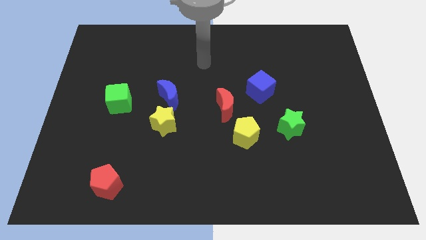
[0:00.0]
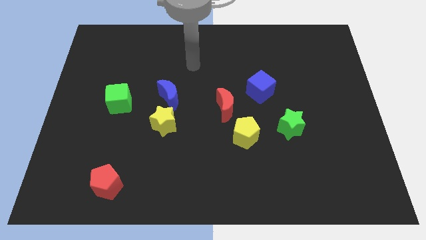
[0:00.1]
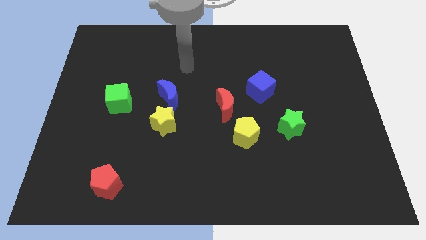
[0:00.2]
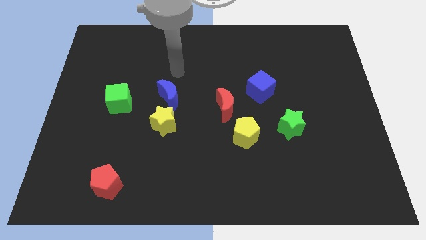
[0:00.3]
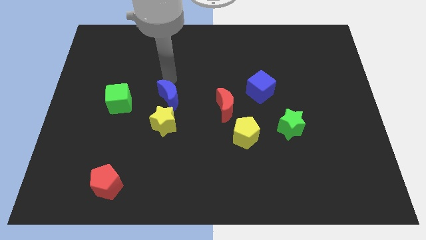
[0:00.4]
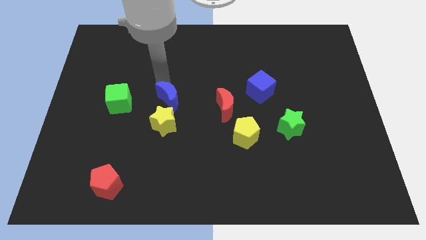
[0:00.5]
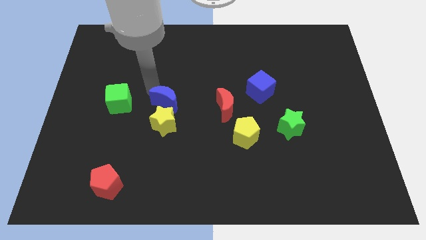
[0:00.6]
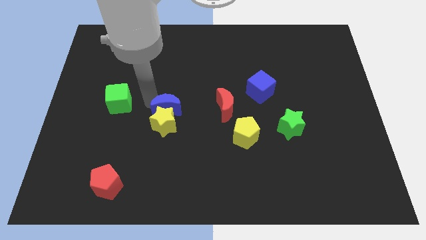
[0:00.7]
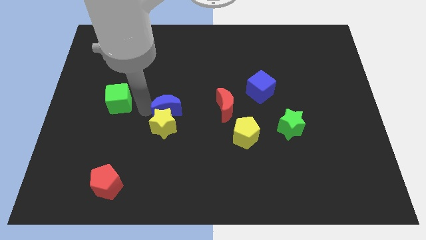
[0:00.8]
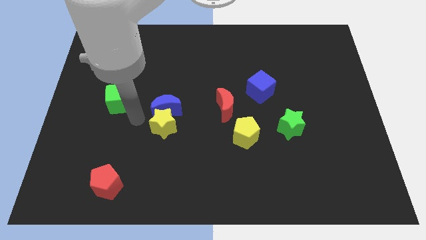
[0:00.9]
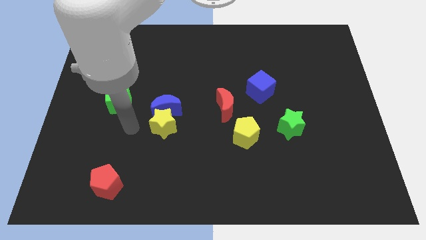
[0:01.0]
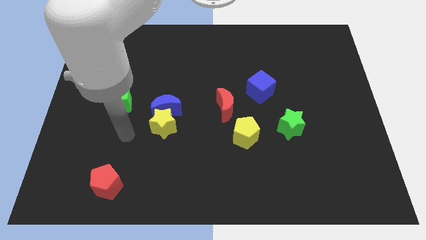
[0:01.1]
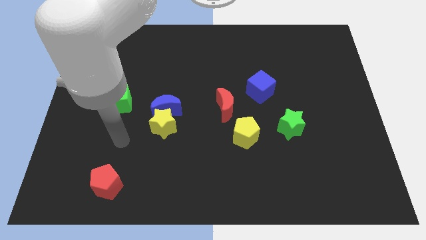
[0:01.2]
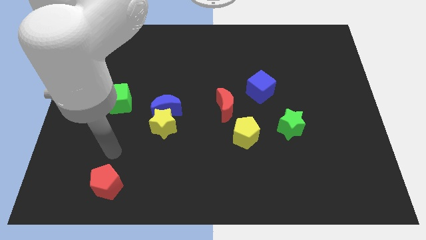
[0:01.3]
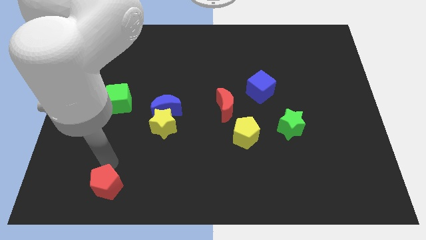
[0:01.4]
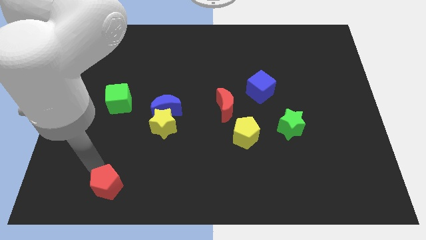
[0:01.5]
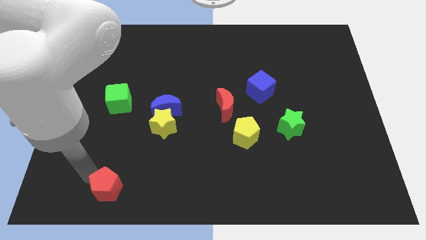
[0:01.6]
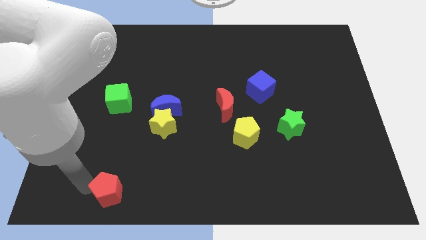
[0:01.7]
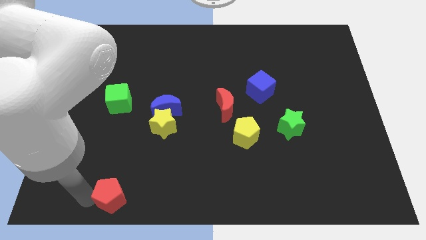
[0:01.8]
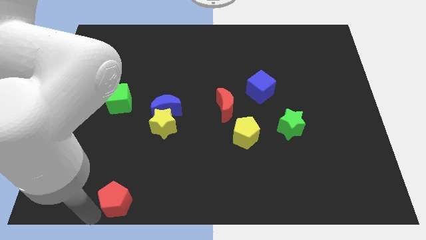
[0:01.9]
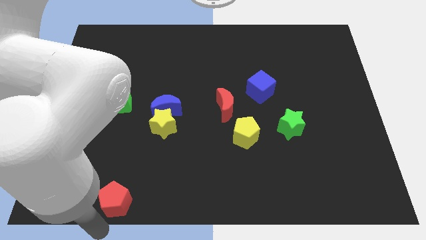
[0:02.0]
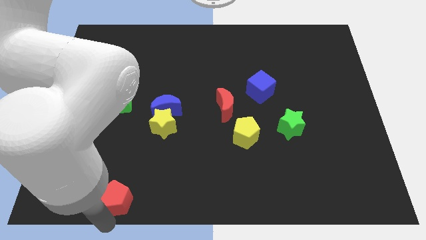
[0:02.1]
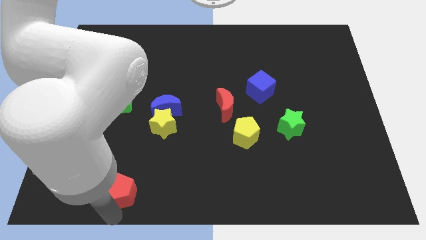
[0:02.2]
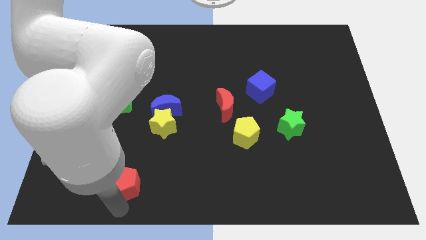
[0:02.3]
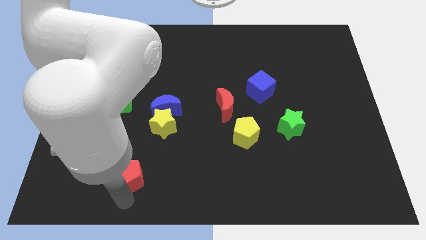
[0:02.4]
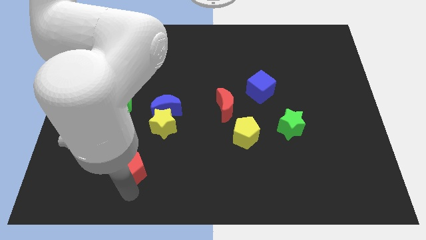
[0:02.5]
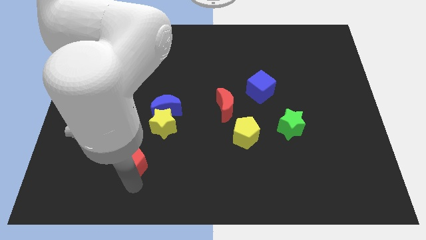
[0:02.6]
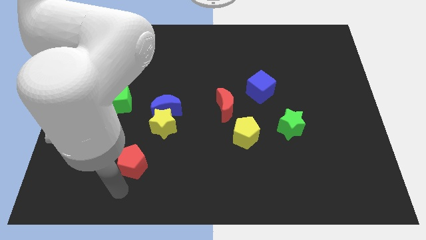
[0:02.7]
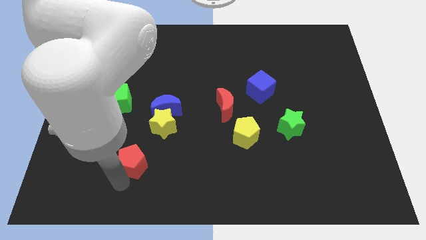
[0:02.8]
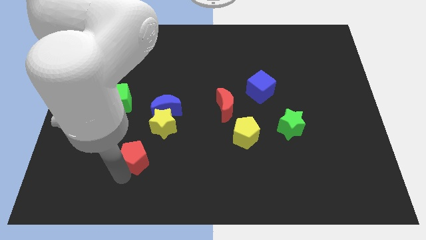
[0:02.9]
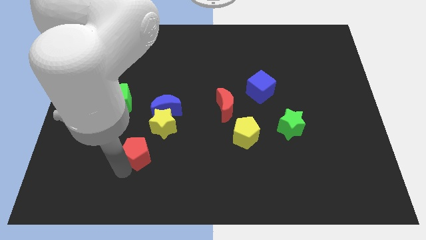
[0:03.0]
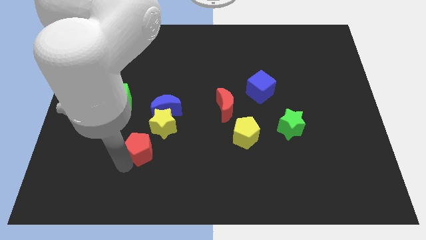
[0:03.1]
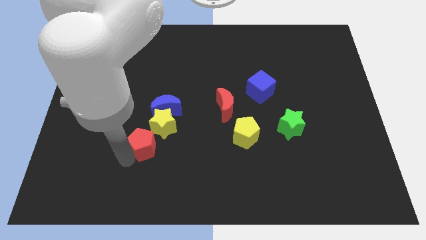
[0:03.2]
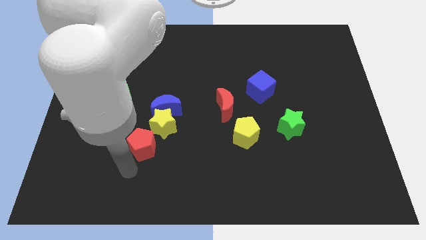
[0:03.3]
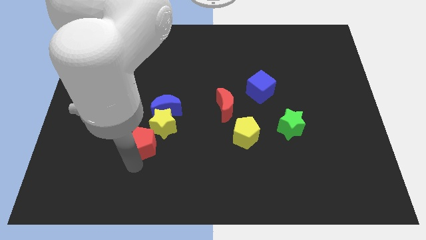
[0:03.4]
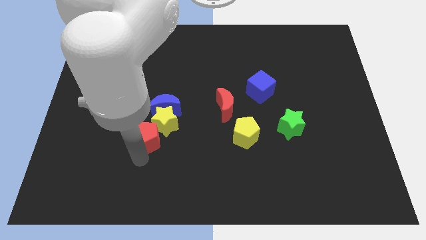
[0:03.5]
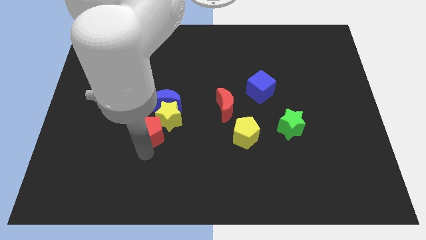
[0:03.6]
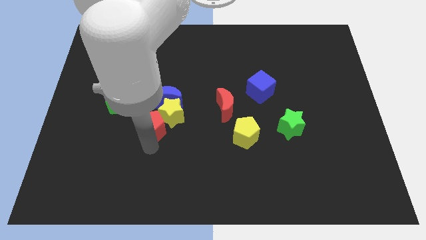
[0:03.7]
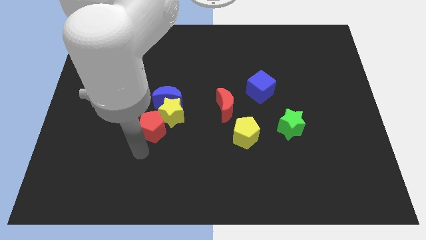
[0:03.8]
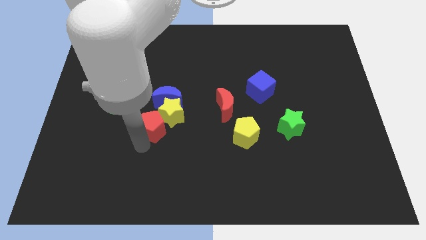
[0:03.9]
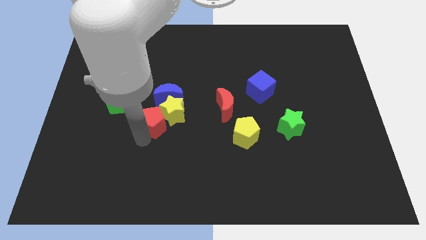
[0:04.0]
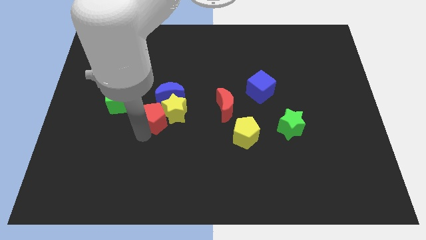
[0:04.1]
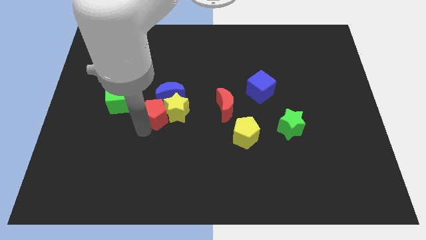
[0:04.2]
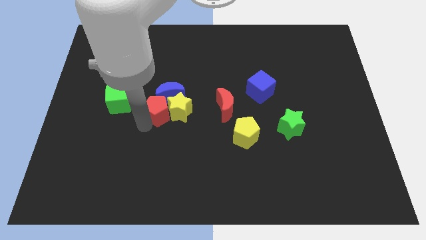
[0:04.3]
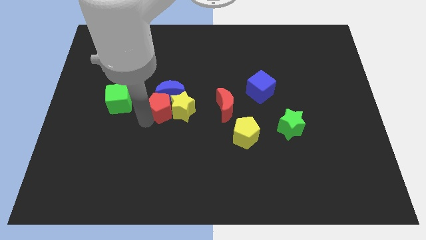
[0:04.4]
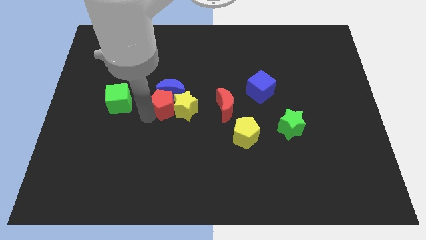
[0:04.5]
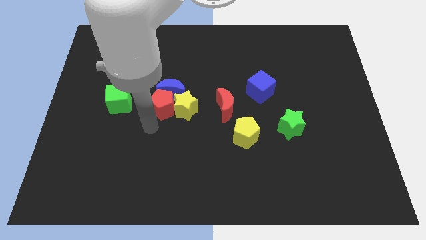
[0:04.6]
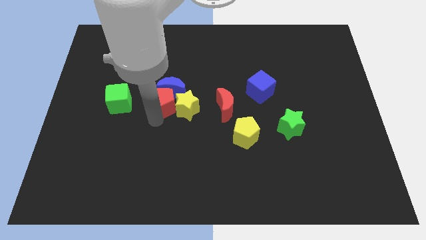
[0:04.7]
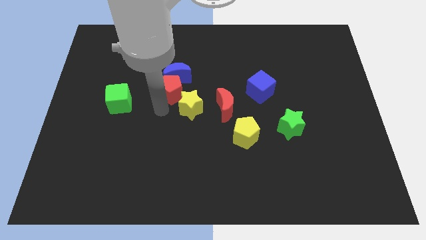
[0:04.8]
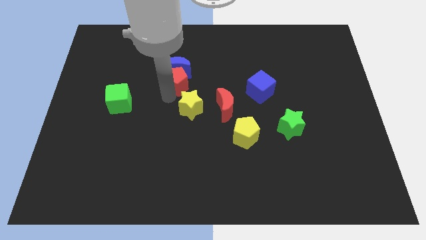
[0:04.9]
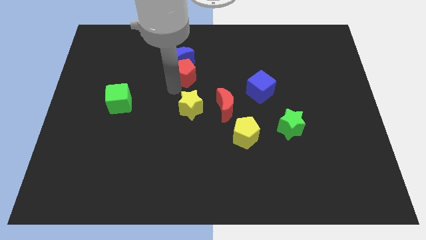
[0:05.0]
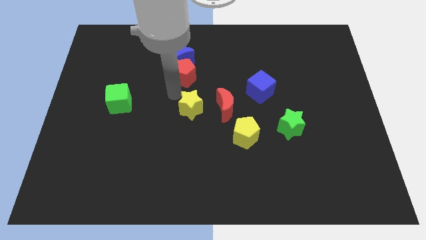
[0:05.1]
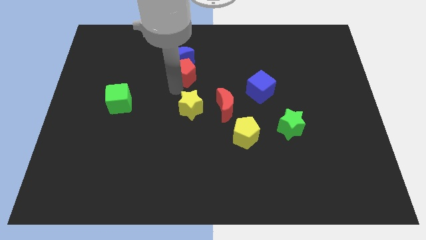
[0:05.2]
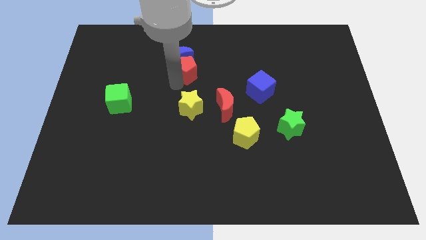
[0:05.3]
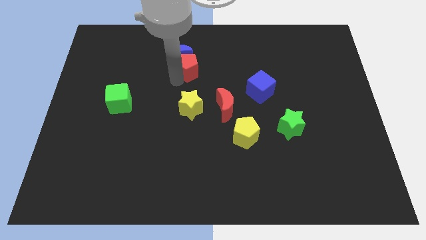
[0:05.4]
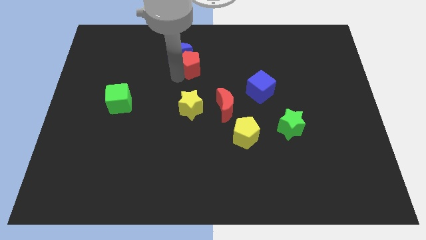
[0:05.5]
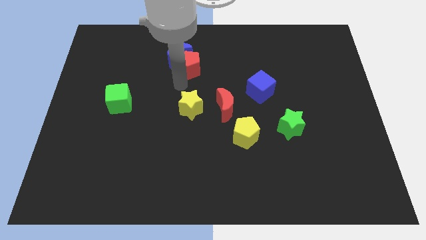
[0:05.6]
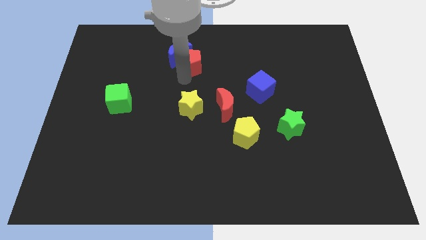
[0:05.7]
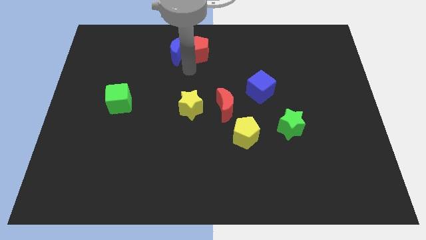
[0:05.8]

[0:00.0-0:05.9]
push the red pentagon to the top side

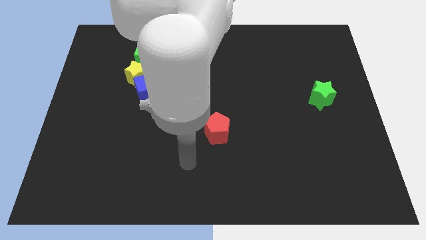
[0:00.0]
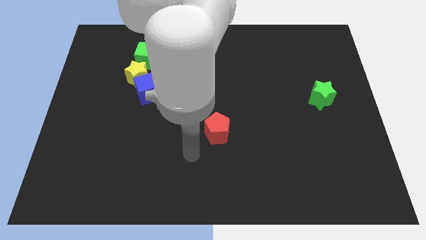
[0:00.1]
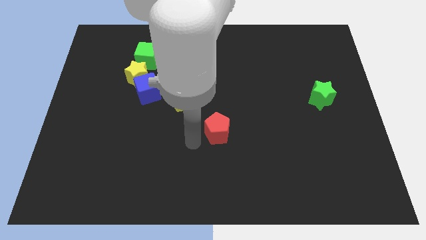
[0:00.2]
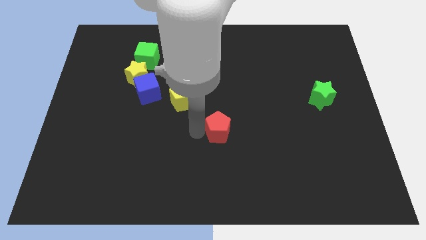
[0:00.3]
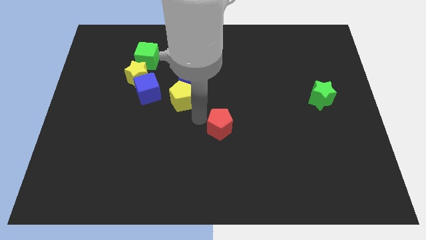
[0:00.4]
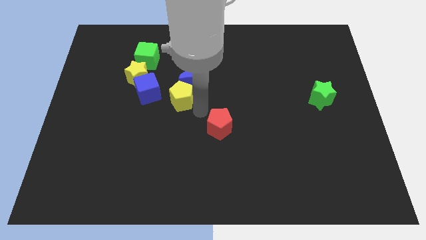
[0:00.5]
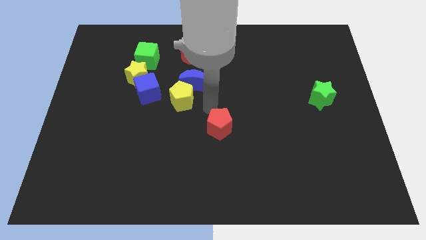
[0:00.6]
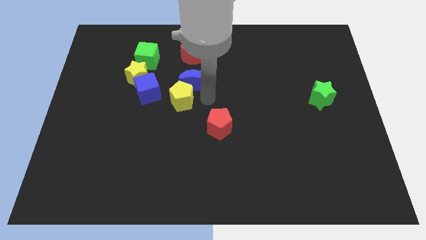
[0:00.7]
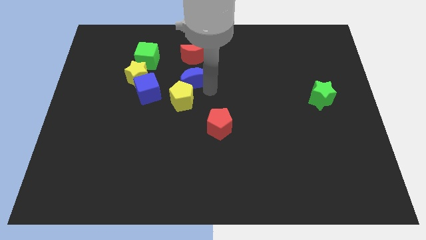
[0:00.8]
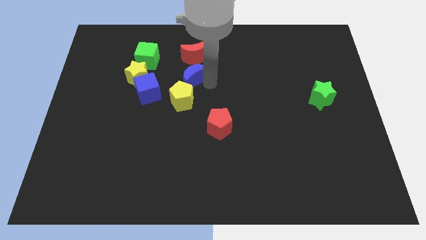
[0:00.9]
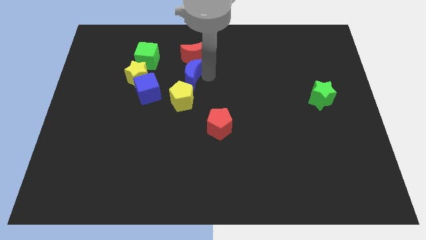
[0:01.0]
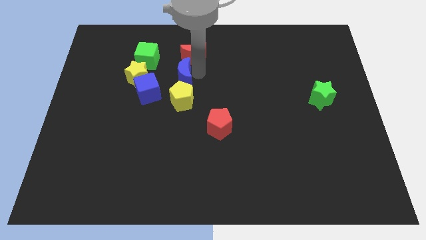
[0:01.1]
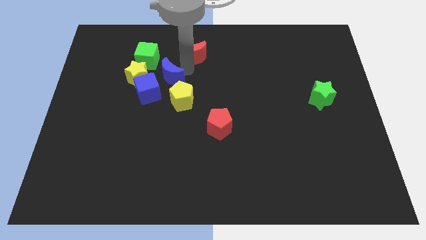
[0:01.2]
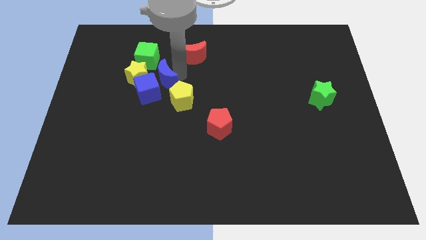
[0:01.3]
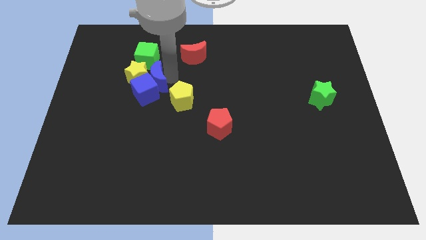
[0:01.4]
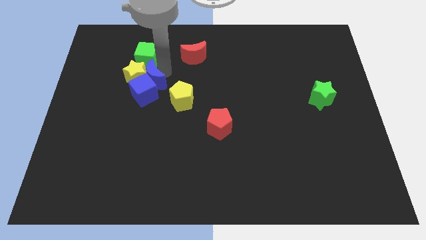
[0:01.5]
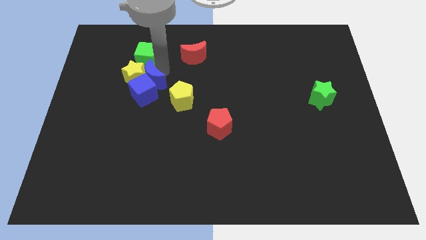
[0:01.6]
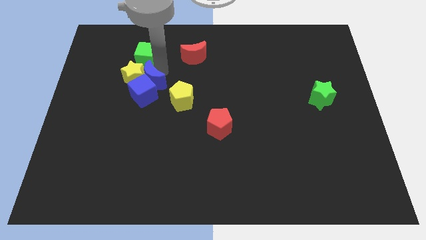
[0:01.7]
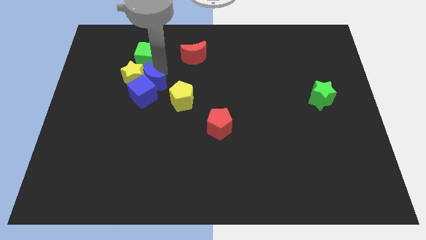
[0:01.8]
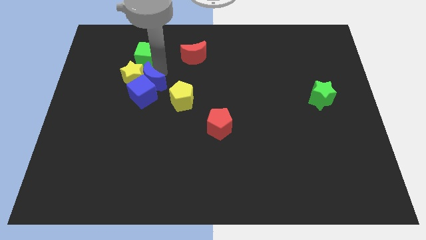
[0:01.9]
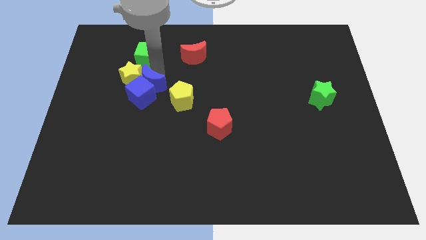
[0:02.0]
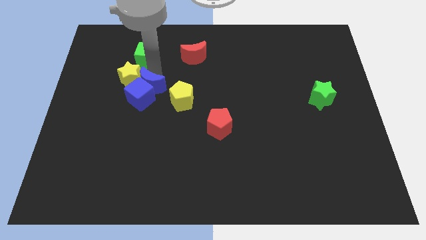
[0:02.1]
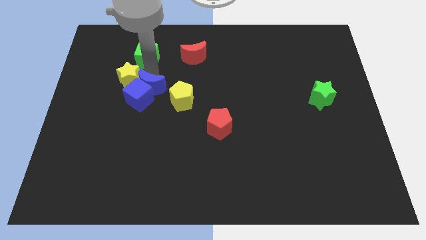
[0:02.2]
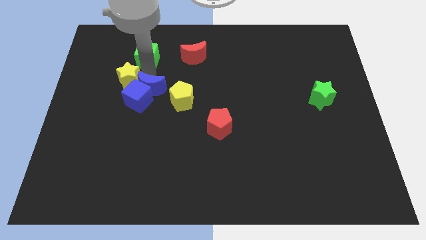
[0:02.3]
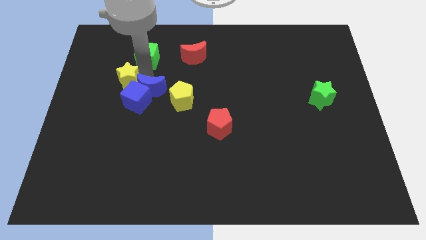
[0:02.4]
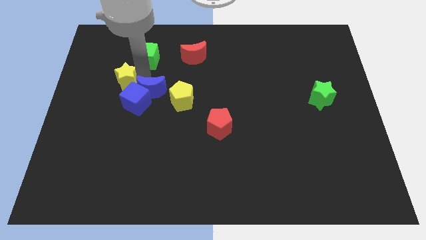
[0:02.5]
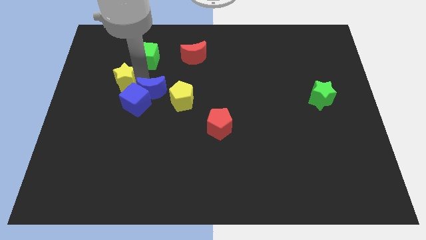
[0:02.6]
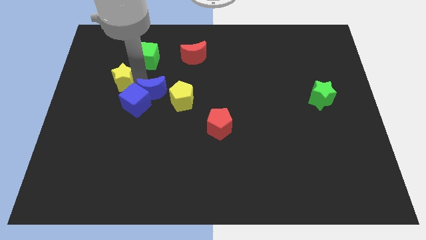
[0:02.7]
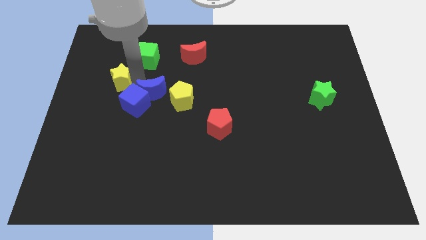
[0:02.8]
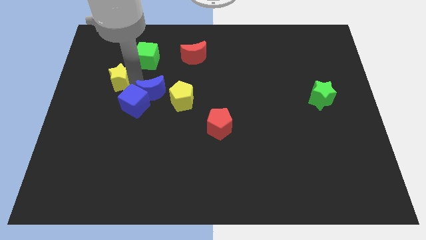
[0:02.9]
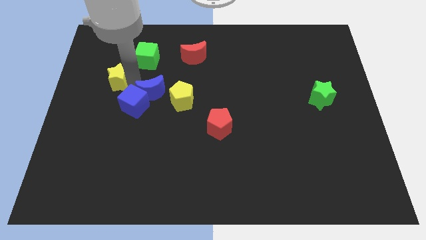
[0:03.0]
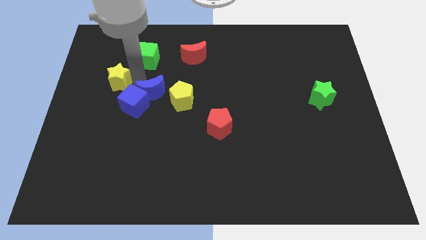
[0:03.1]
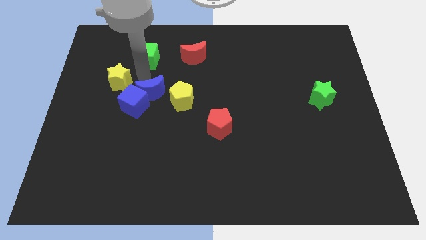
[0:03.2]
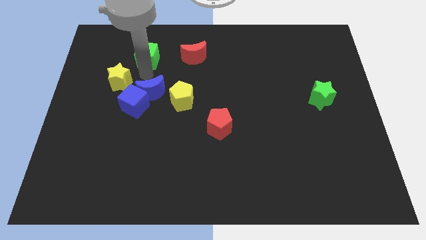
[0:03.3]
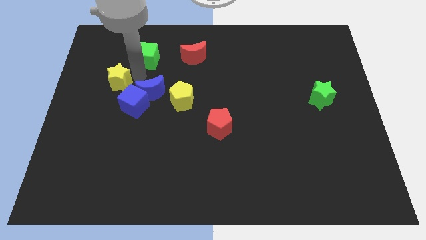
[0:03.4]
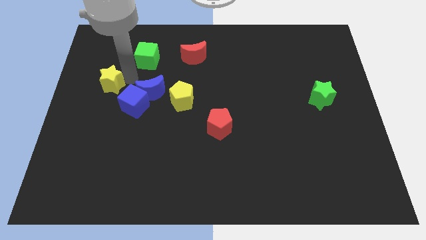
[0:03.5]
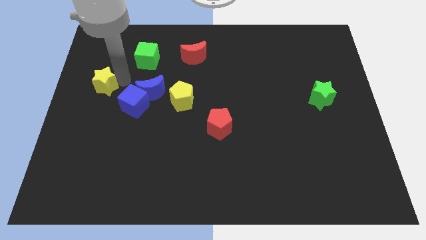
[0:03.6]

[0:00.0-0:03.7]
move the yellow star to the center left
